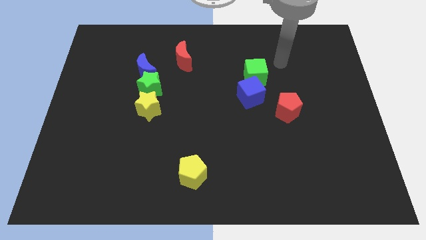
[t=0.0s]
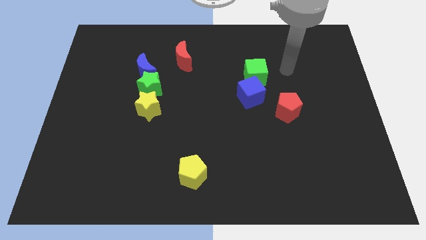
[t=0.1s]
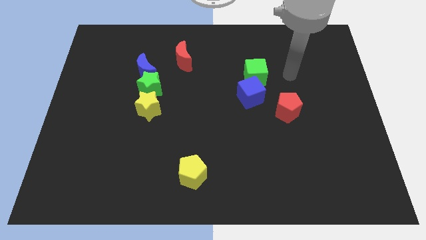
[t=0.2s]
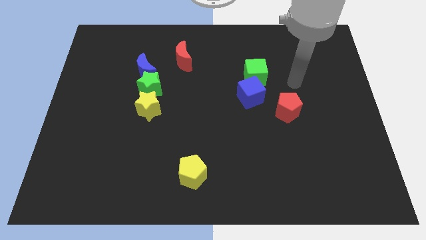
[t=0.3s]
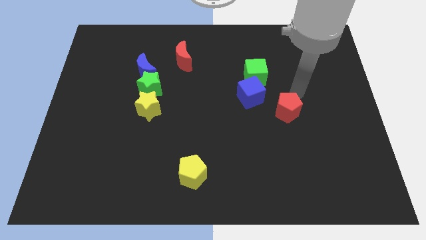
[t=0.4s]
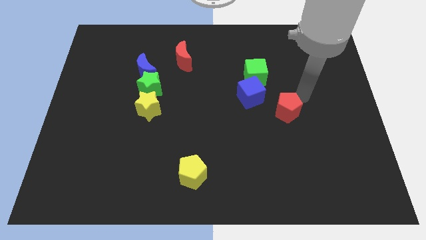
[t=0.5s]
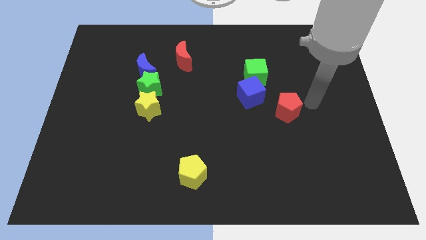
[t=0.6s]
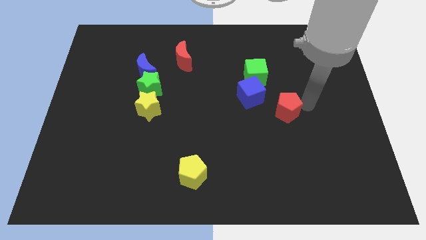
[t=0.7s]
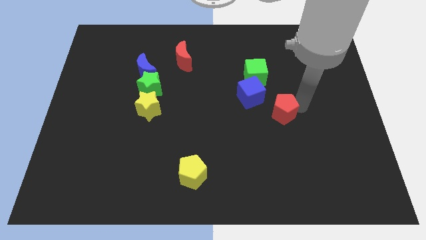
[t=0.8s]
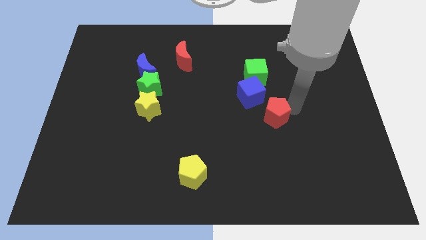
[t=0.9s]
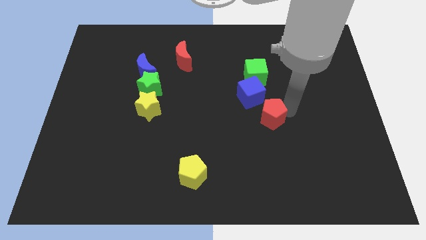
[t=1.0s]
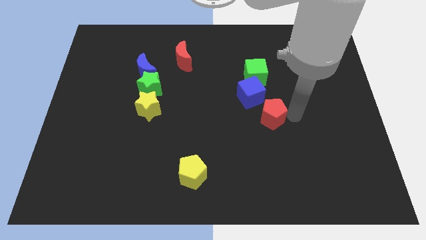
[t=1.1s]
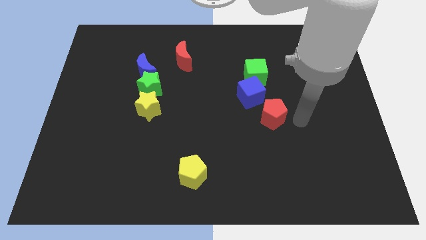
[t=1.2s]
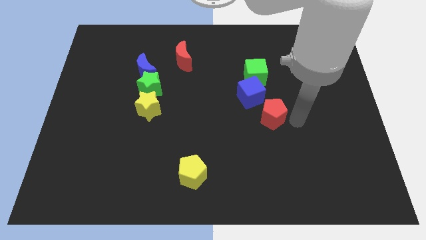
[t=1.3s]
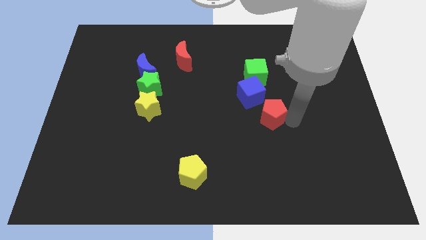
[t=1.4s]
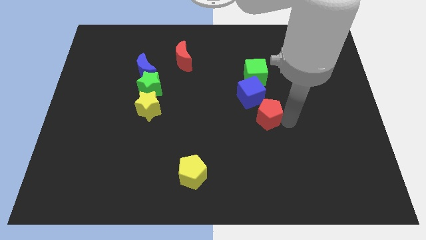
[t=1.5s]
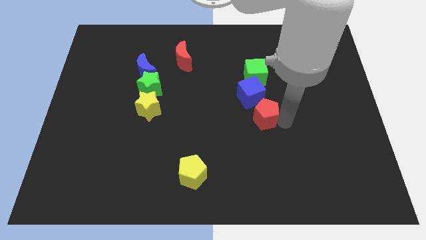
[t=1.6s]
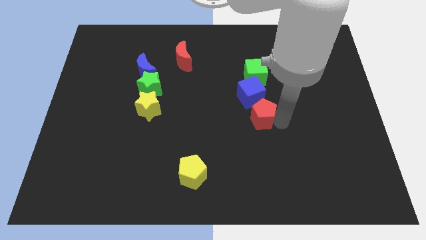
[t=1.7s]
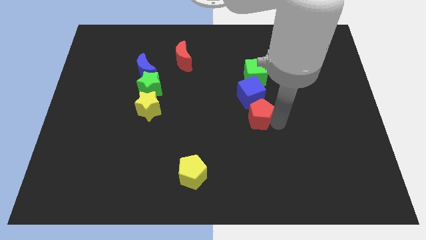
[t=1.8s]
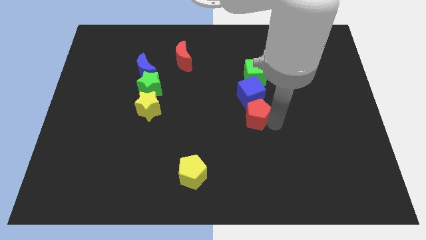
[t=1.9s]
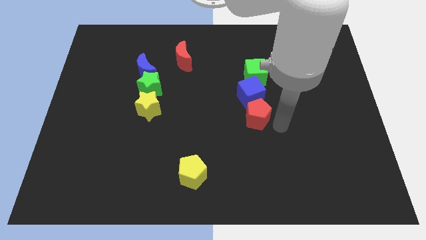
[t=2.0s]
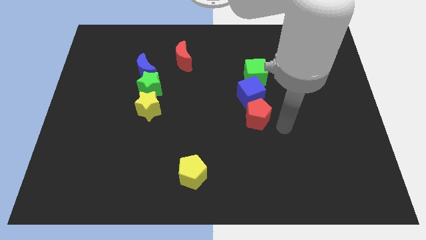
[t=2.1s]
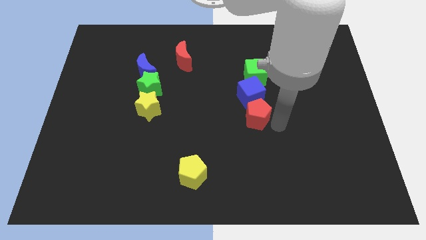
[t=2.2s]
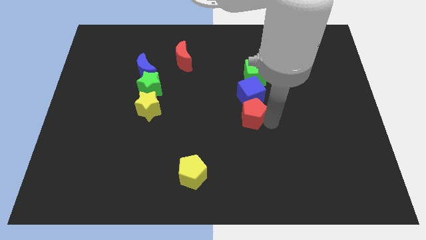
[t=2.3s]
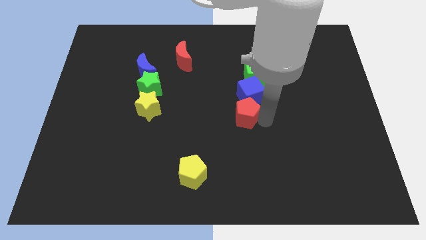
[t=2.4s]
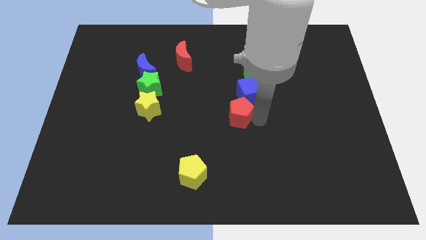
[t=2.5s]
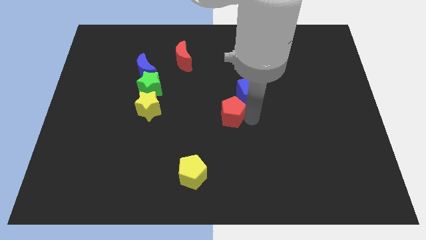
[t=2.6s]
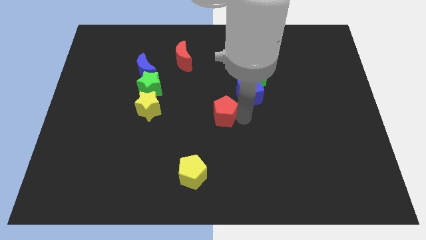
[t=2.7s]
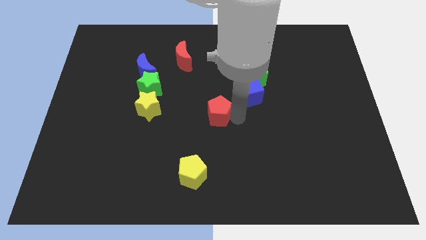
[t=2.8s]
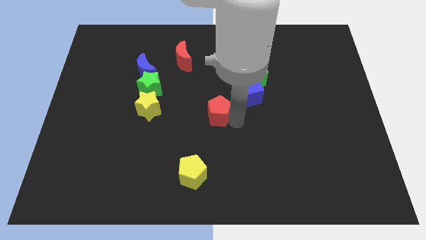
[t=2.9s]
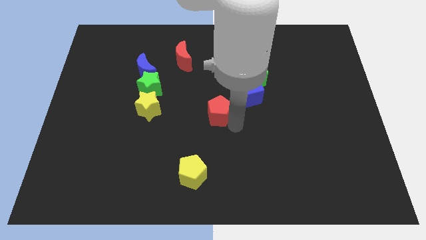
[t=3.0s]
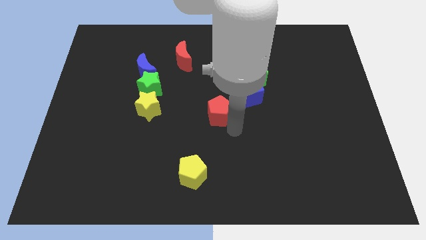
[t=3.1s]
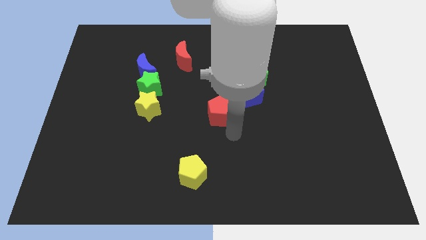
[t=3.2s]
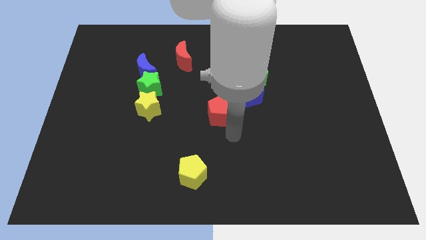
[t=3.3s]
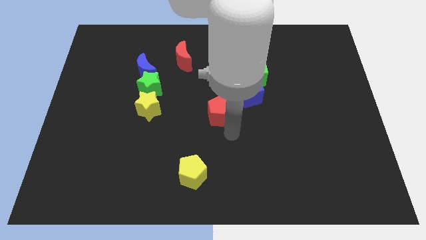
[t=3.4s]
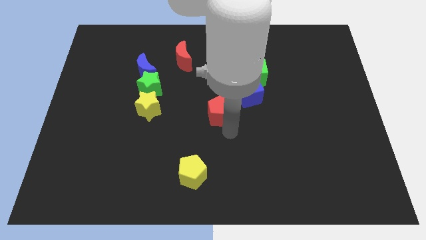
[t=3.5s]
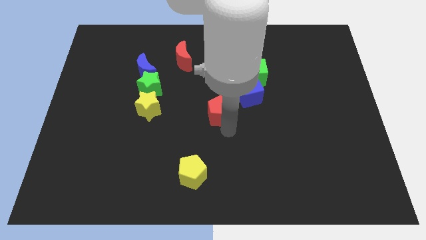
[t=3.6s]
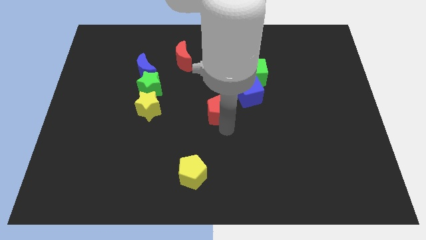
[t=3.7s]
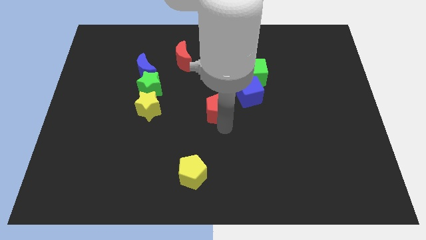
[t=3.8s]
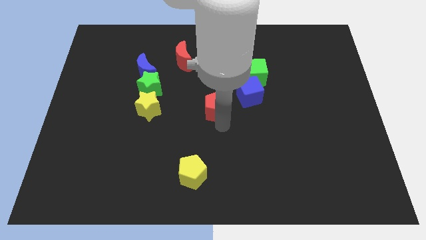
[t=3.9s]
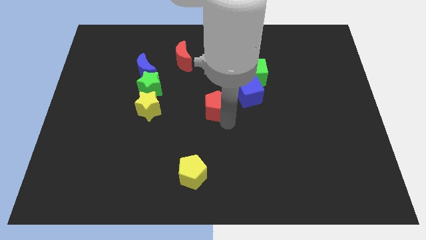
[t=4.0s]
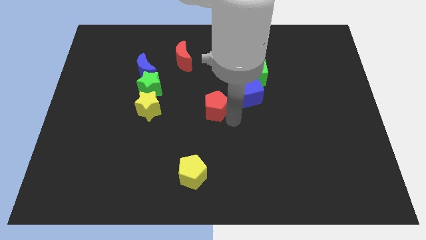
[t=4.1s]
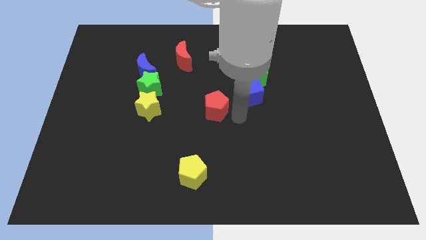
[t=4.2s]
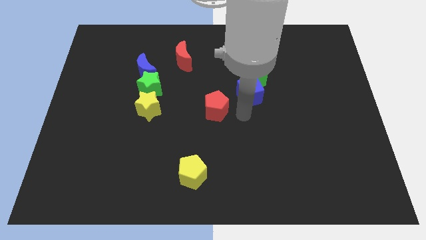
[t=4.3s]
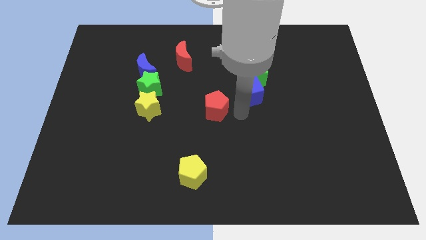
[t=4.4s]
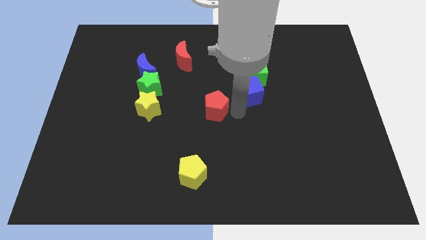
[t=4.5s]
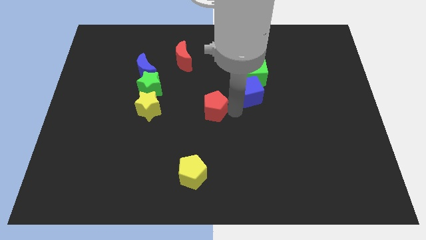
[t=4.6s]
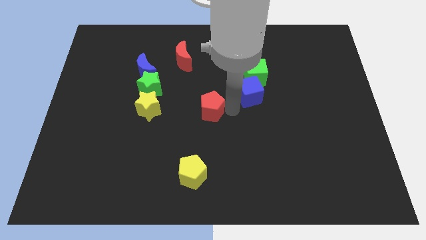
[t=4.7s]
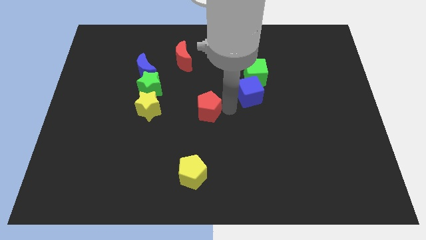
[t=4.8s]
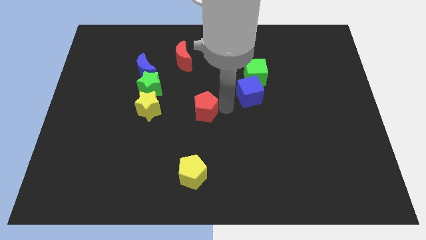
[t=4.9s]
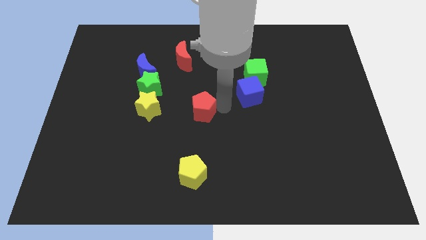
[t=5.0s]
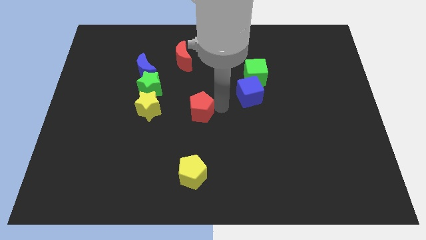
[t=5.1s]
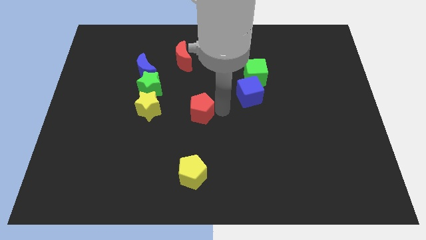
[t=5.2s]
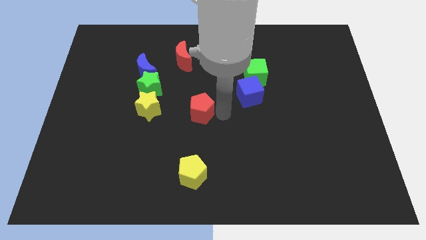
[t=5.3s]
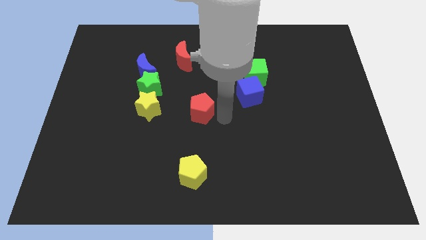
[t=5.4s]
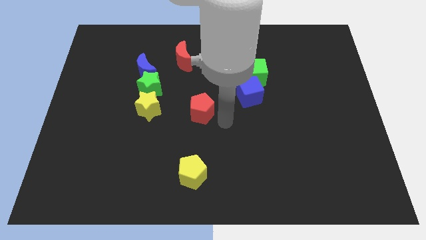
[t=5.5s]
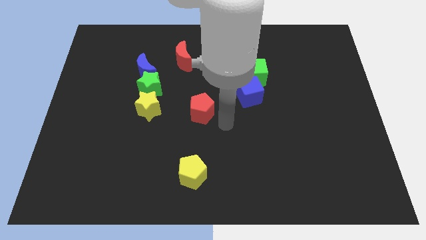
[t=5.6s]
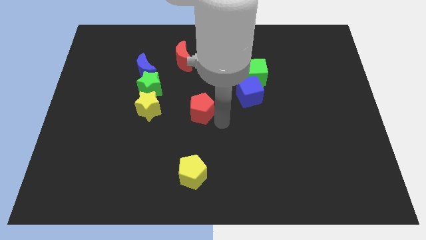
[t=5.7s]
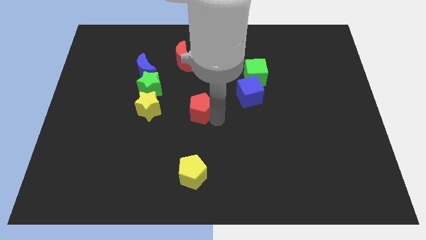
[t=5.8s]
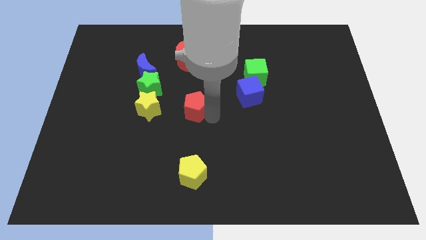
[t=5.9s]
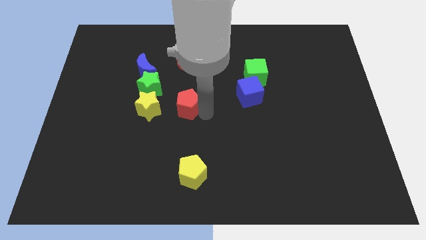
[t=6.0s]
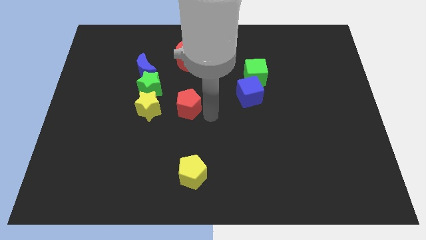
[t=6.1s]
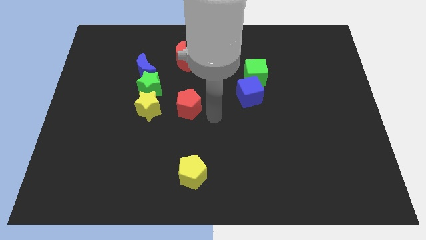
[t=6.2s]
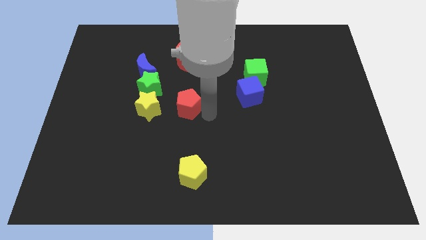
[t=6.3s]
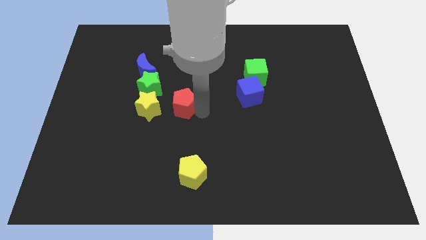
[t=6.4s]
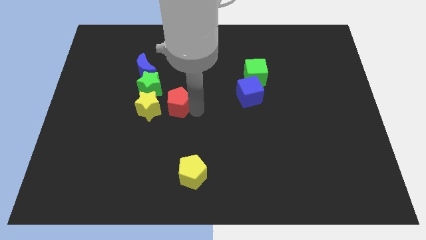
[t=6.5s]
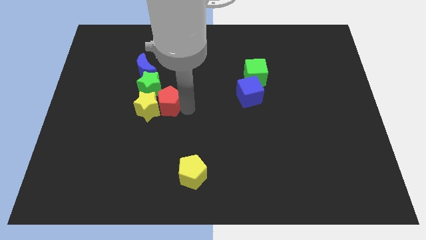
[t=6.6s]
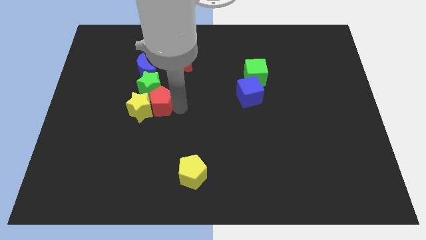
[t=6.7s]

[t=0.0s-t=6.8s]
move the red pentagon to the green star

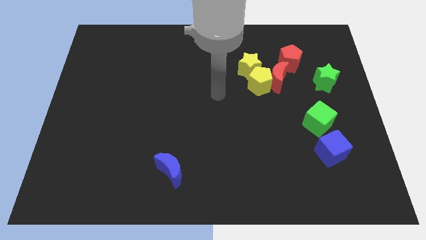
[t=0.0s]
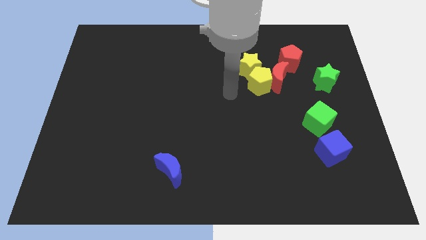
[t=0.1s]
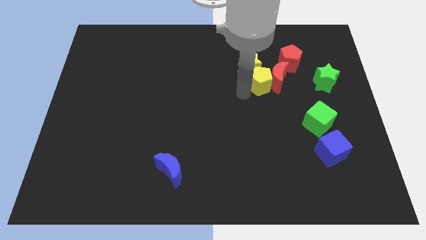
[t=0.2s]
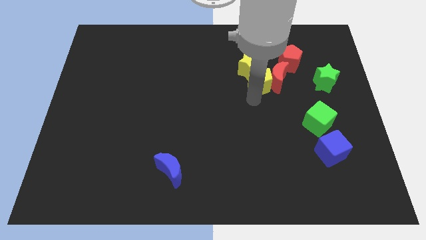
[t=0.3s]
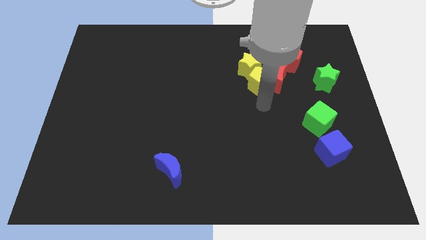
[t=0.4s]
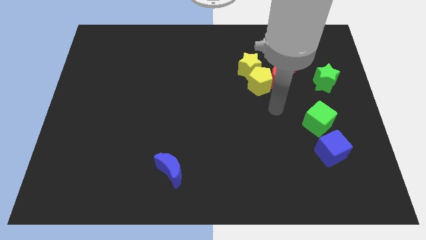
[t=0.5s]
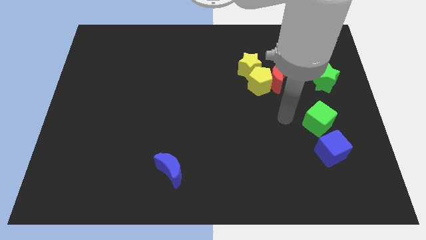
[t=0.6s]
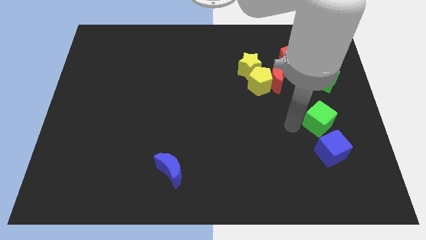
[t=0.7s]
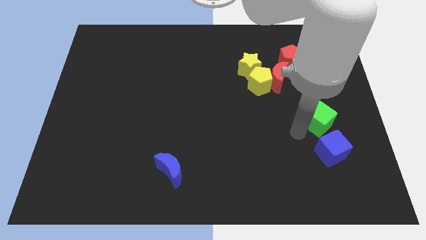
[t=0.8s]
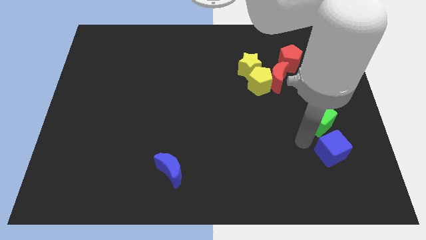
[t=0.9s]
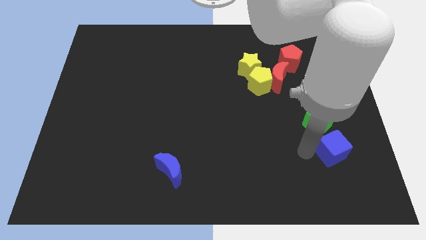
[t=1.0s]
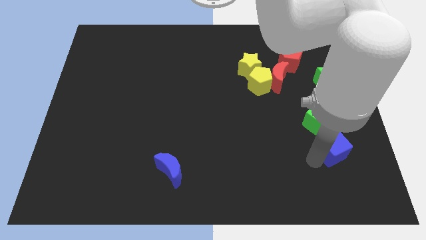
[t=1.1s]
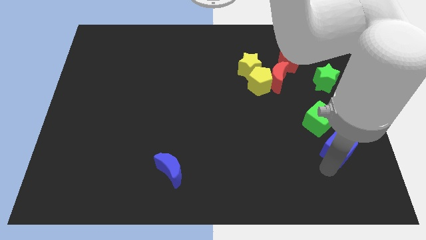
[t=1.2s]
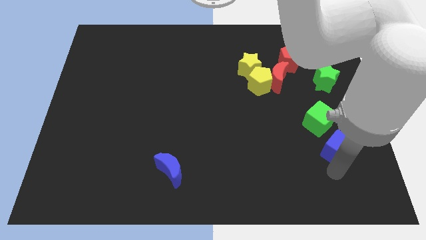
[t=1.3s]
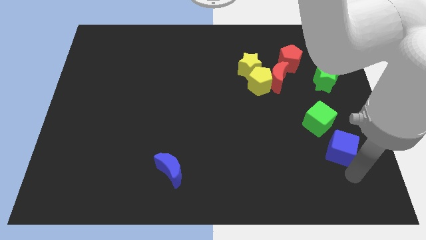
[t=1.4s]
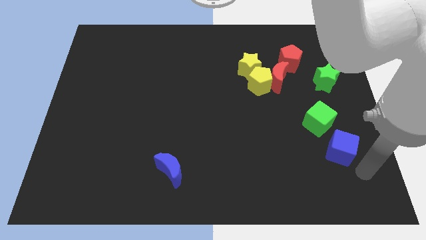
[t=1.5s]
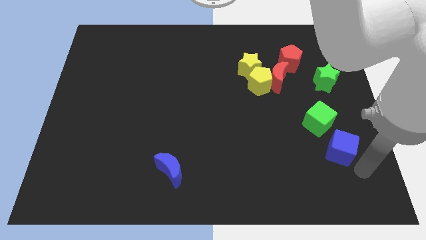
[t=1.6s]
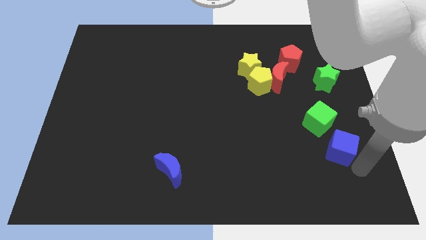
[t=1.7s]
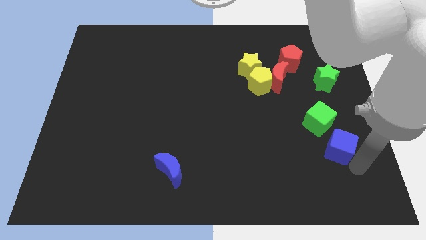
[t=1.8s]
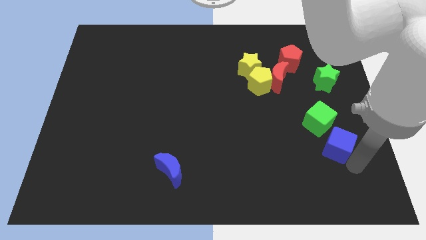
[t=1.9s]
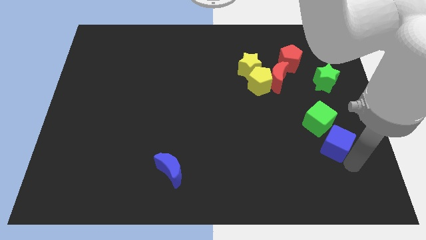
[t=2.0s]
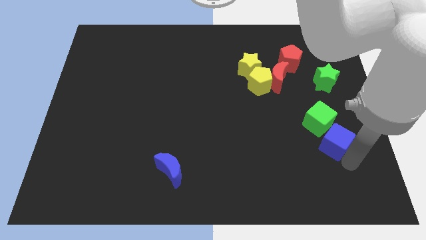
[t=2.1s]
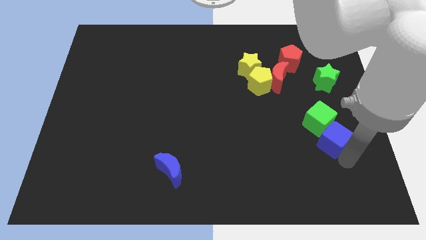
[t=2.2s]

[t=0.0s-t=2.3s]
push the blue cube to the green cube
